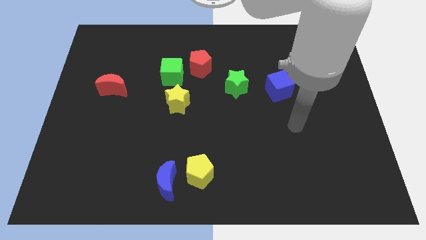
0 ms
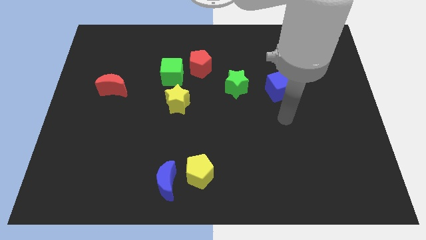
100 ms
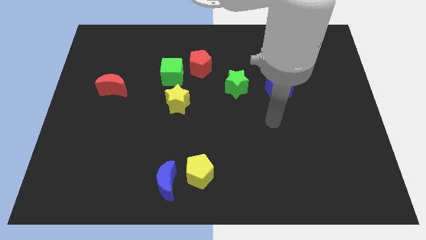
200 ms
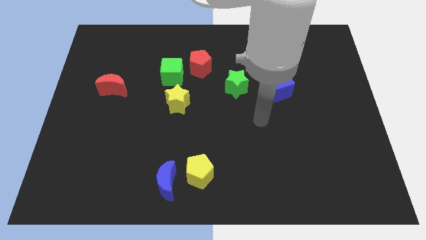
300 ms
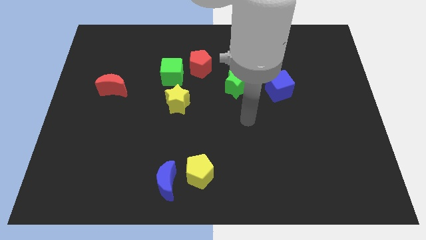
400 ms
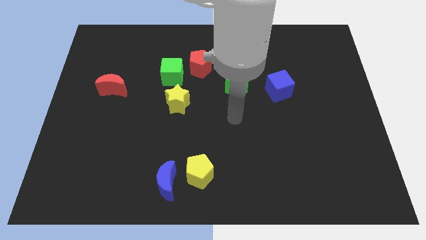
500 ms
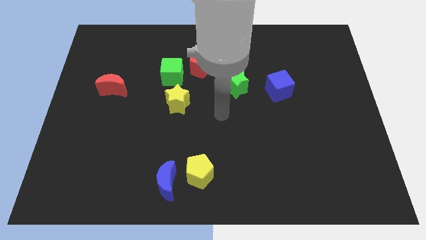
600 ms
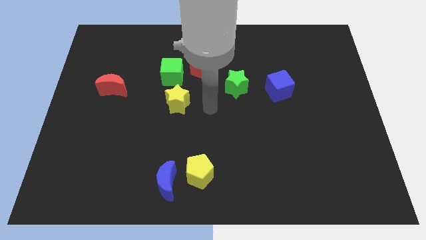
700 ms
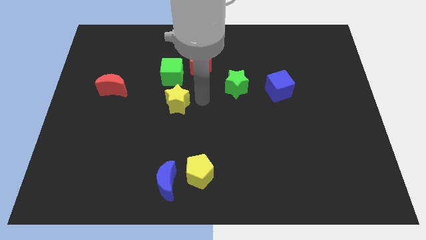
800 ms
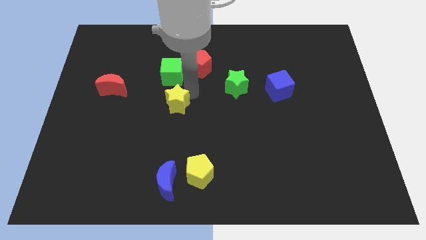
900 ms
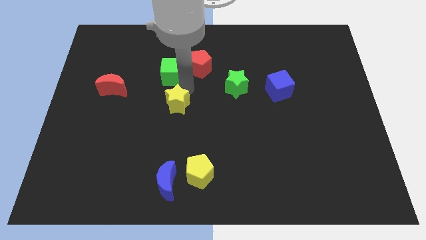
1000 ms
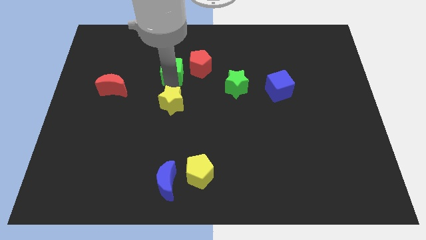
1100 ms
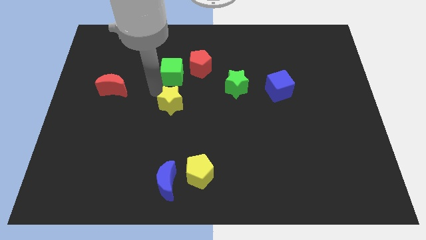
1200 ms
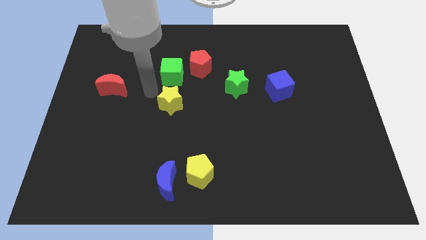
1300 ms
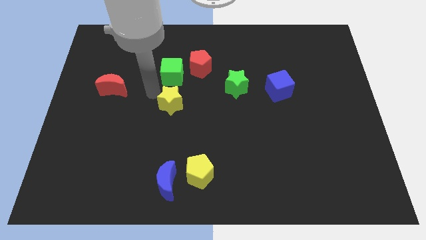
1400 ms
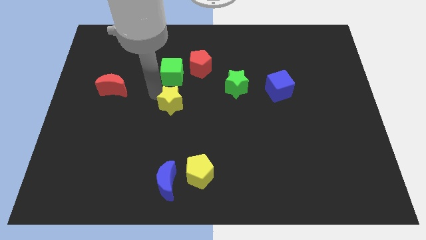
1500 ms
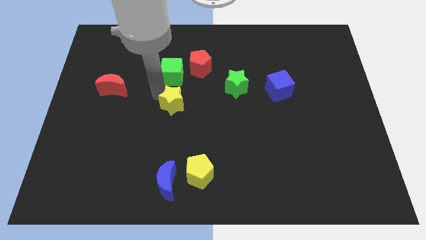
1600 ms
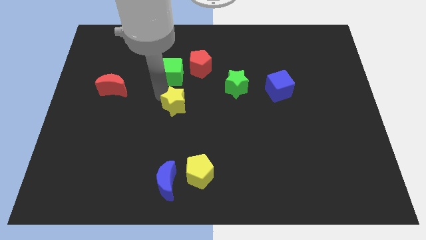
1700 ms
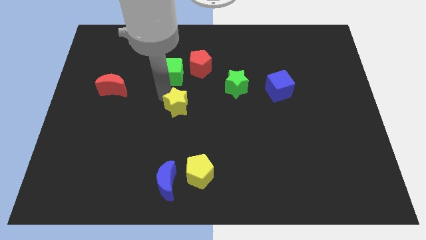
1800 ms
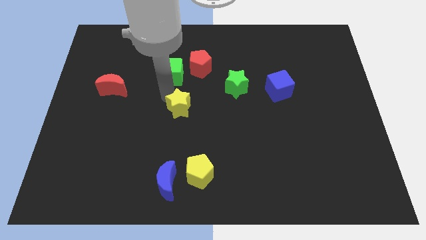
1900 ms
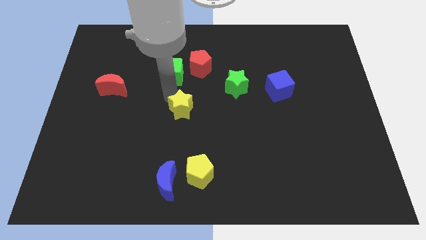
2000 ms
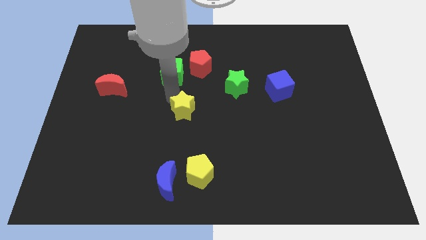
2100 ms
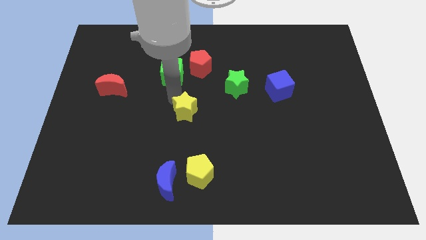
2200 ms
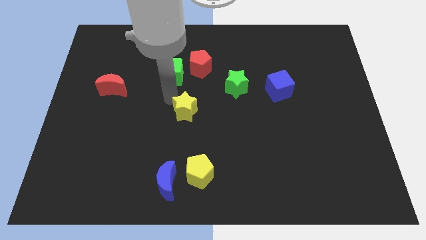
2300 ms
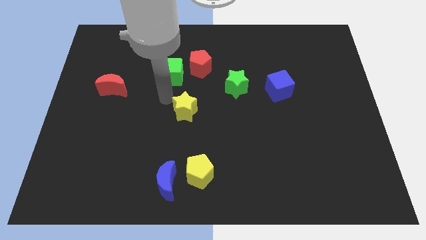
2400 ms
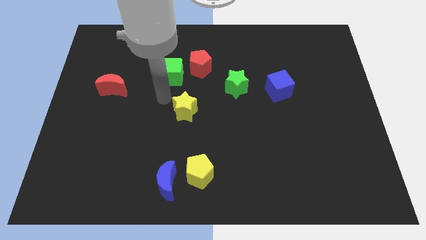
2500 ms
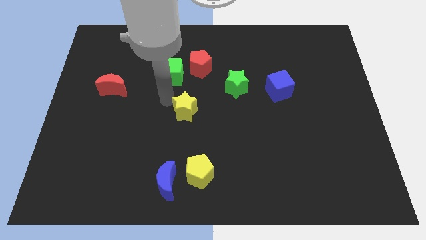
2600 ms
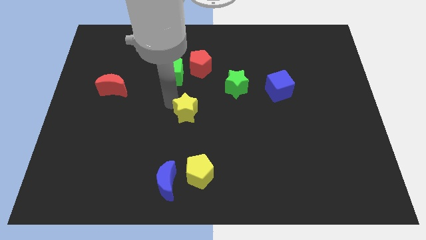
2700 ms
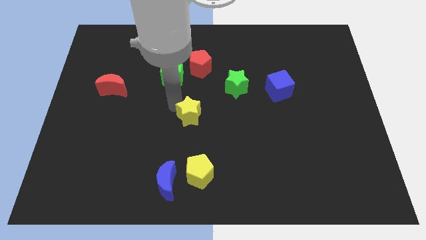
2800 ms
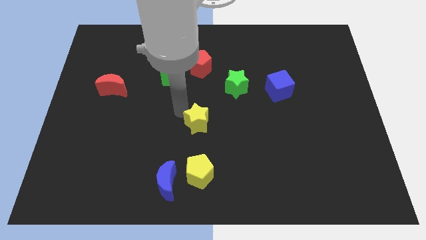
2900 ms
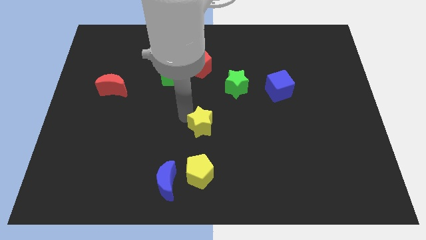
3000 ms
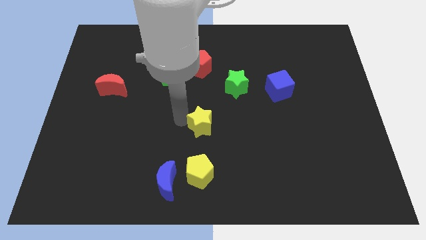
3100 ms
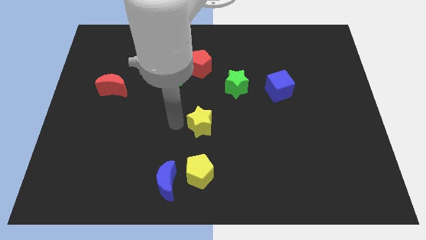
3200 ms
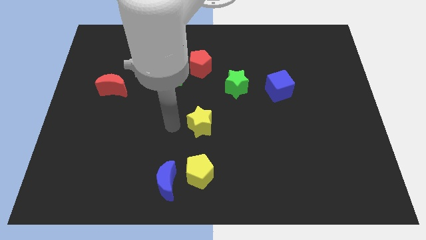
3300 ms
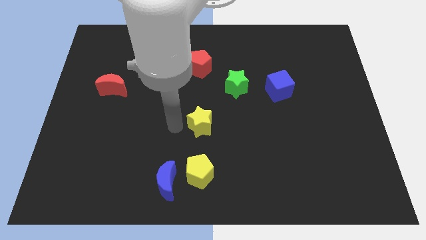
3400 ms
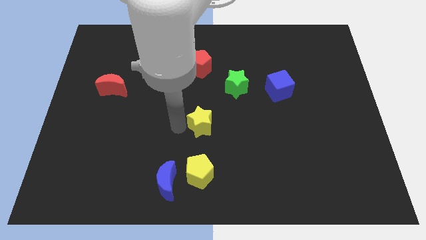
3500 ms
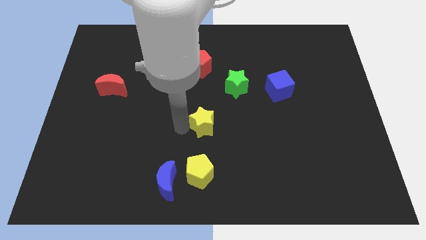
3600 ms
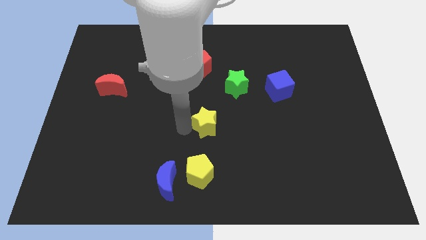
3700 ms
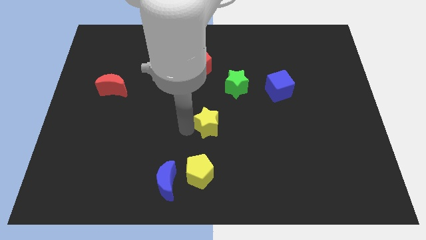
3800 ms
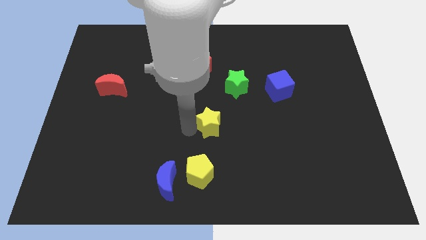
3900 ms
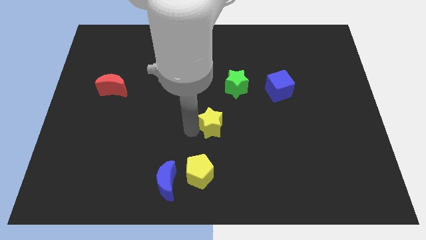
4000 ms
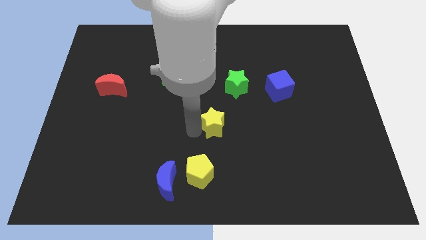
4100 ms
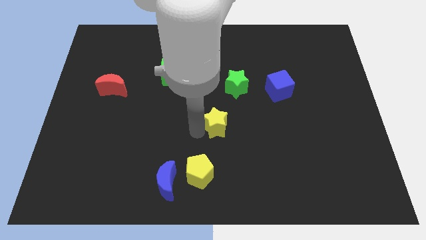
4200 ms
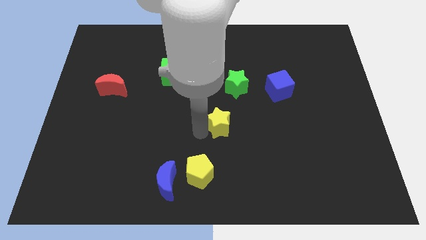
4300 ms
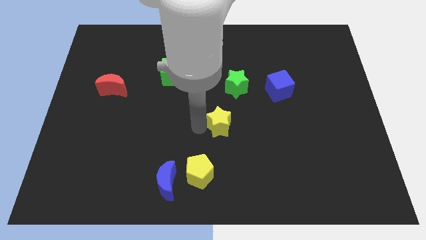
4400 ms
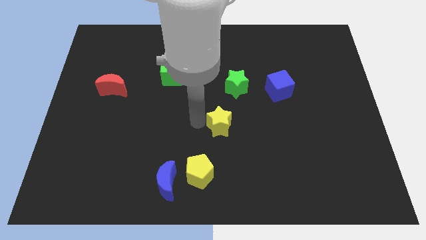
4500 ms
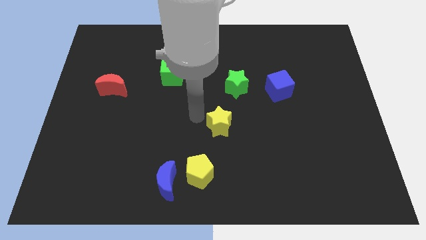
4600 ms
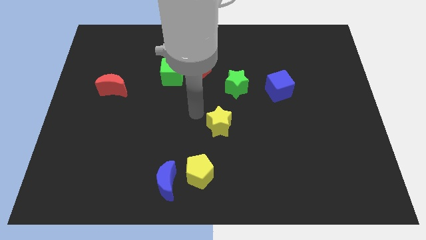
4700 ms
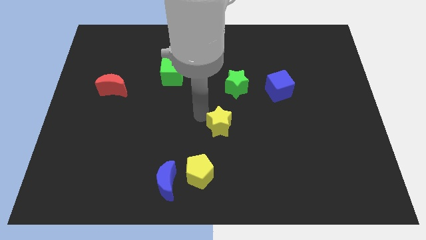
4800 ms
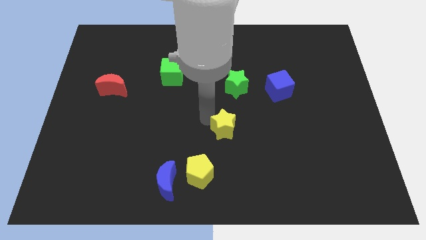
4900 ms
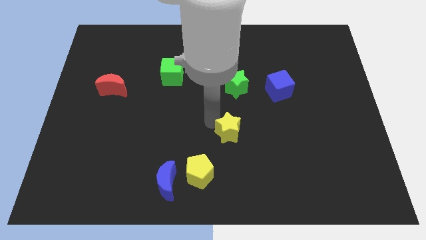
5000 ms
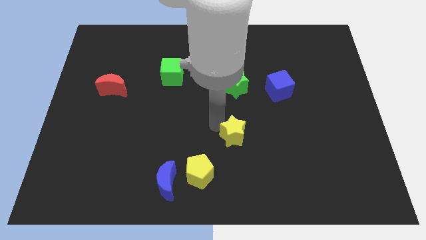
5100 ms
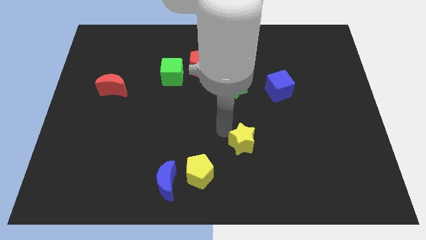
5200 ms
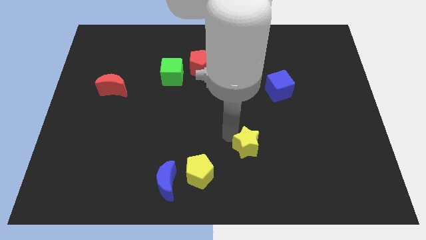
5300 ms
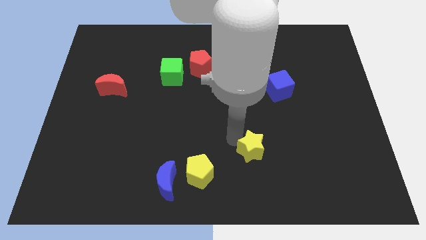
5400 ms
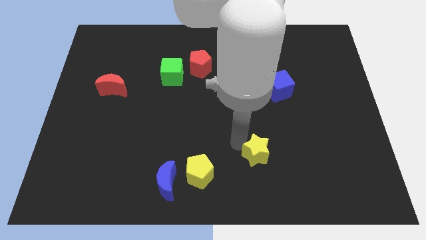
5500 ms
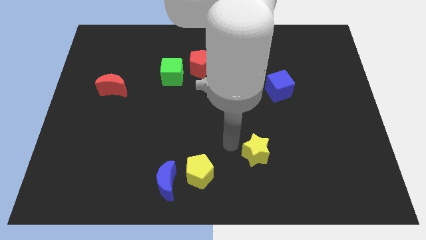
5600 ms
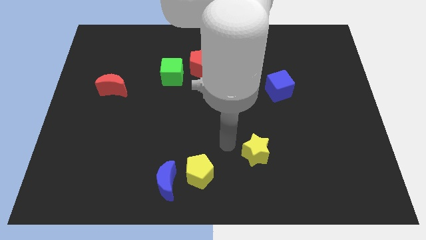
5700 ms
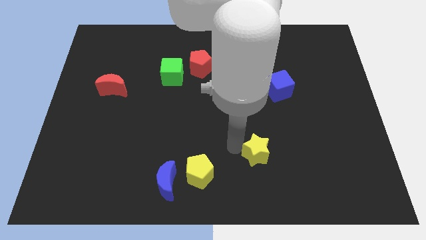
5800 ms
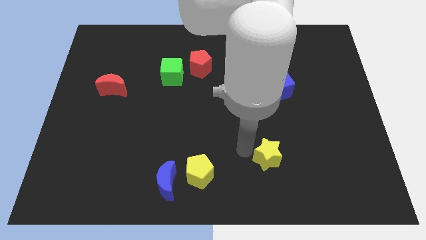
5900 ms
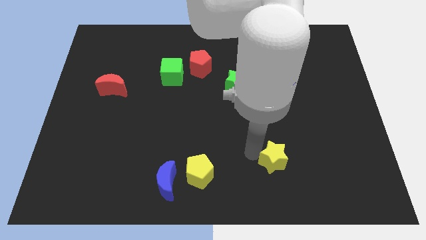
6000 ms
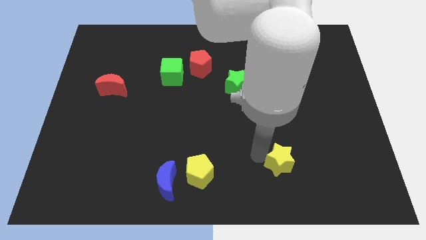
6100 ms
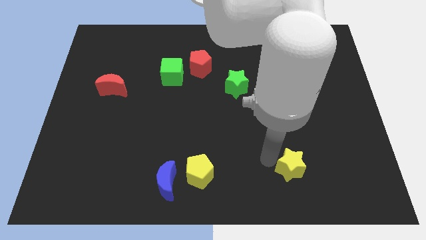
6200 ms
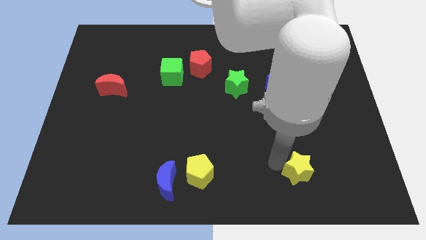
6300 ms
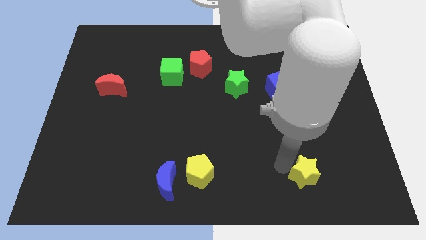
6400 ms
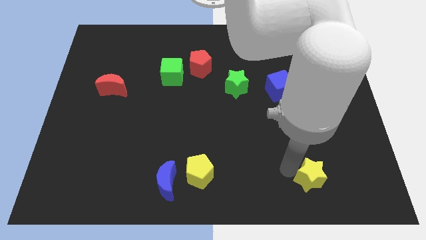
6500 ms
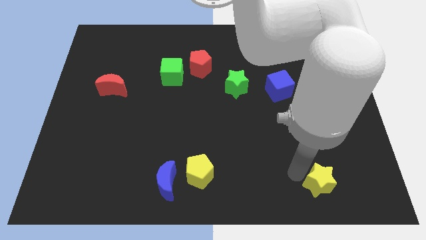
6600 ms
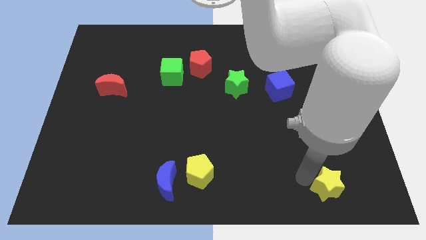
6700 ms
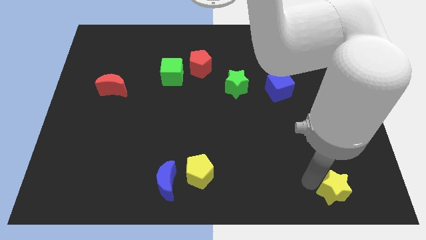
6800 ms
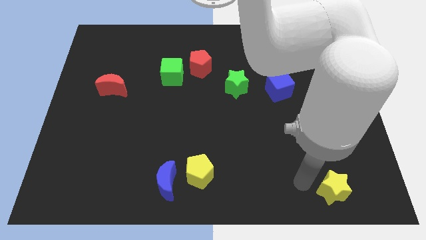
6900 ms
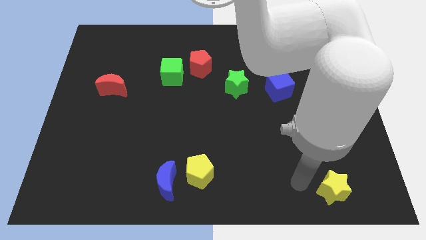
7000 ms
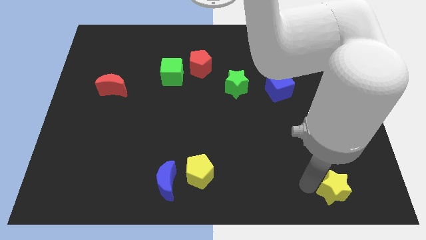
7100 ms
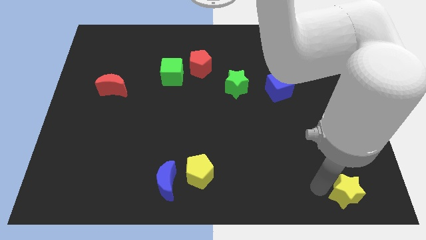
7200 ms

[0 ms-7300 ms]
push the yellow star to the bottom right
